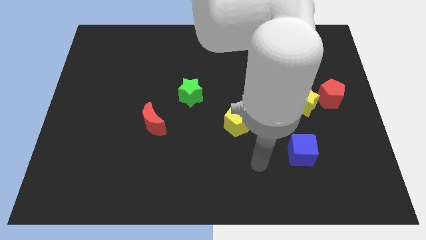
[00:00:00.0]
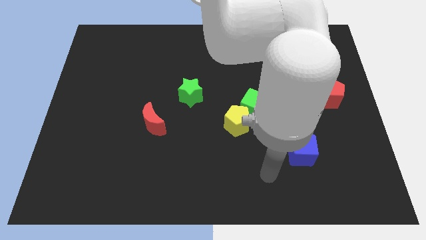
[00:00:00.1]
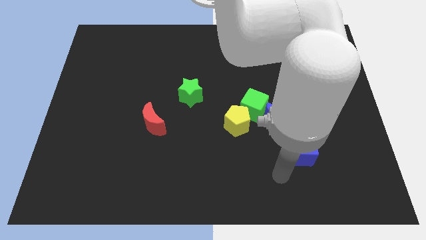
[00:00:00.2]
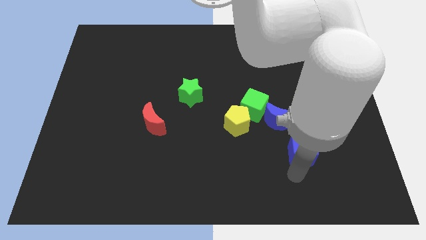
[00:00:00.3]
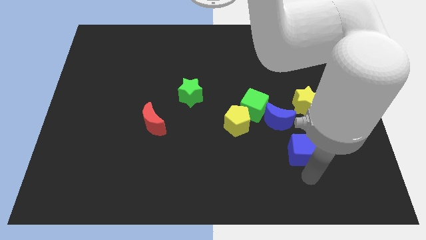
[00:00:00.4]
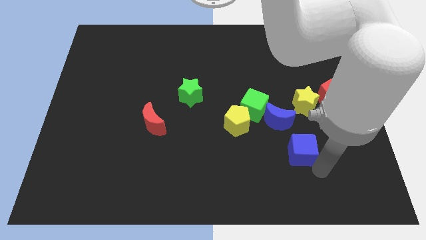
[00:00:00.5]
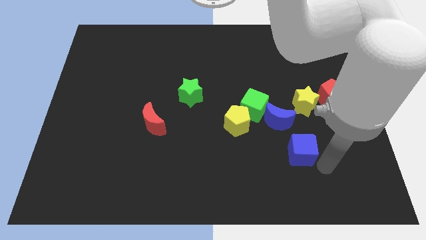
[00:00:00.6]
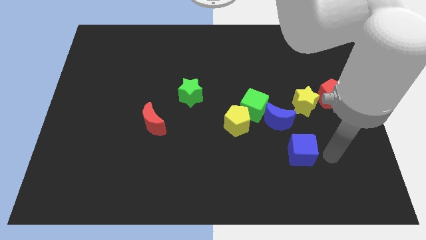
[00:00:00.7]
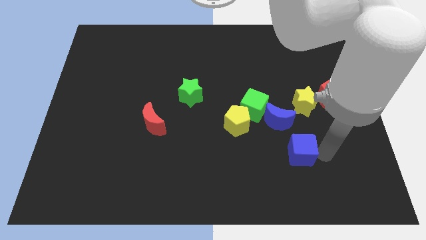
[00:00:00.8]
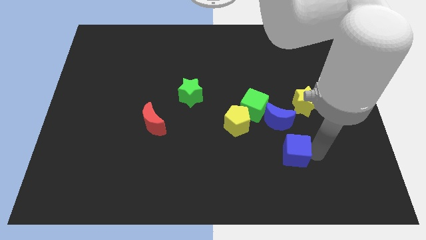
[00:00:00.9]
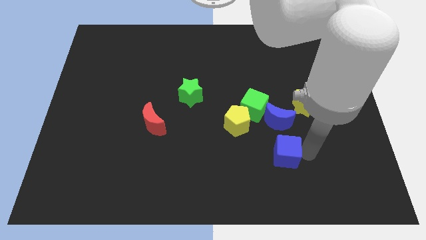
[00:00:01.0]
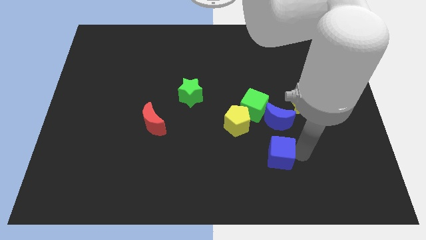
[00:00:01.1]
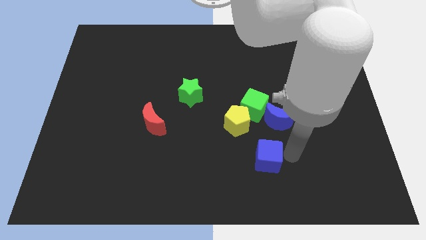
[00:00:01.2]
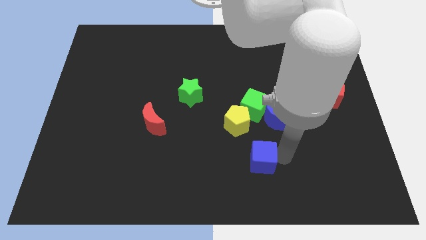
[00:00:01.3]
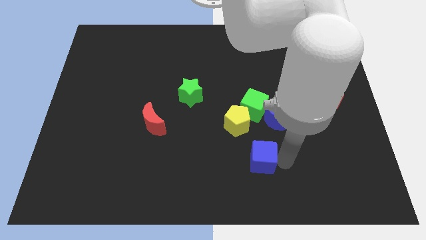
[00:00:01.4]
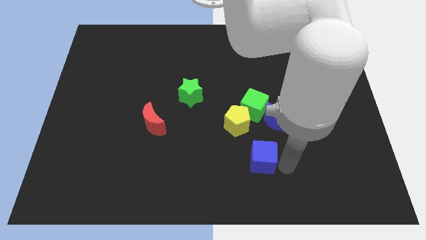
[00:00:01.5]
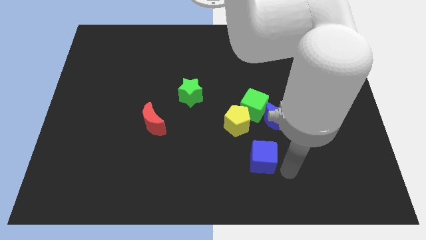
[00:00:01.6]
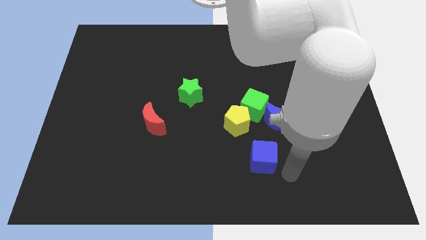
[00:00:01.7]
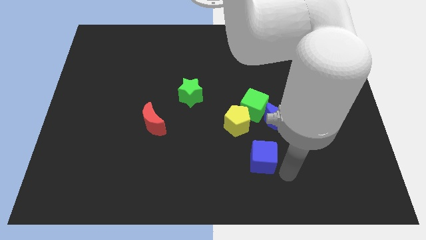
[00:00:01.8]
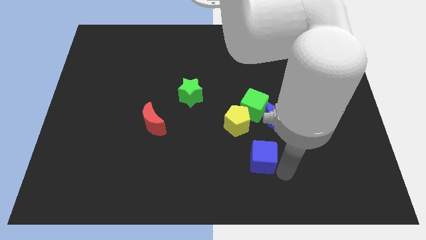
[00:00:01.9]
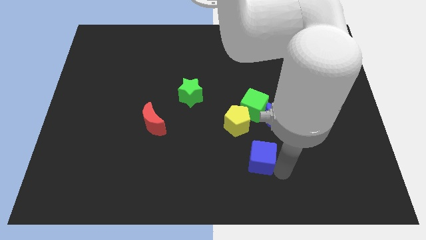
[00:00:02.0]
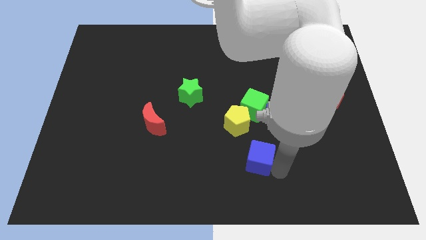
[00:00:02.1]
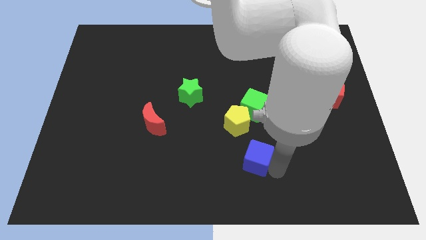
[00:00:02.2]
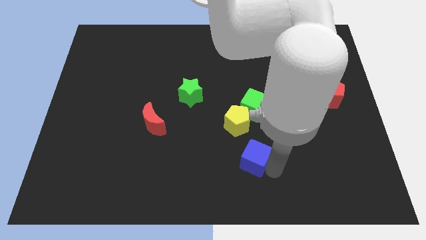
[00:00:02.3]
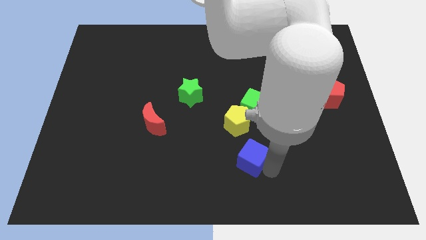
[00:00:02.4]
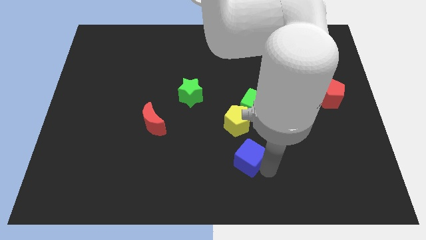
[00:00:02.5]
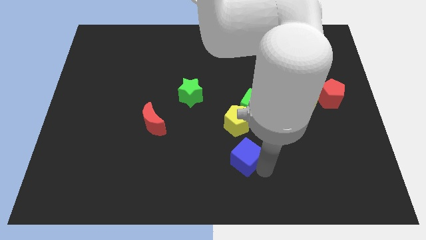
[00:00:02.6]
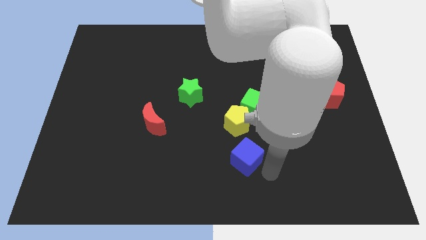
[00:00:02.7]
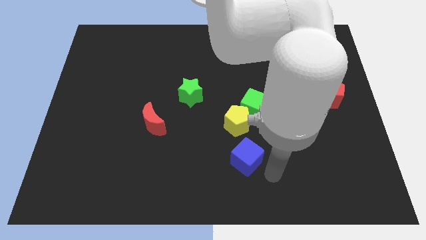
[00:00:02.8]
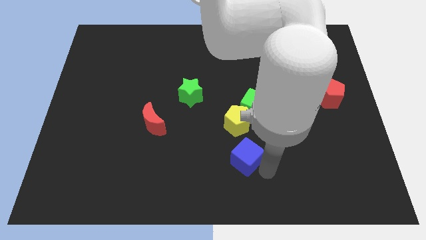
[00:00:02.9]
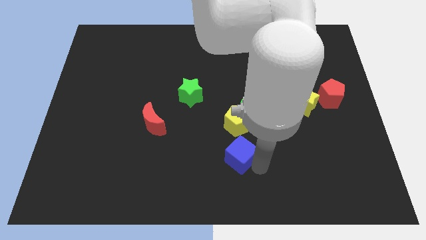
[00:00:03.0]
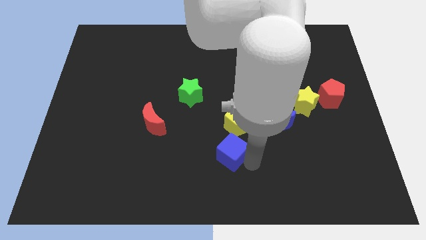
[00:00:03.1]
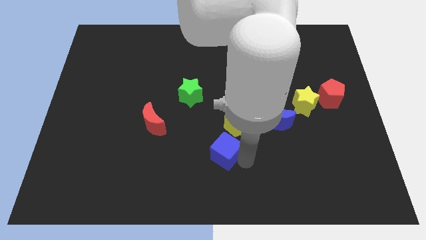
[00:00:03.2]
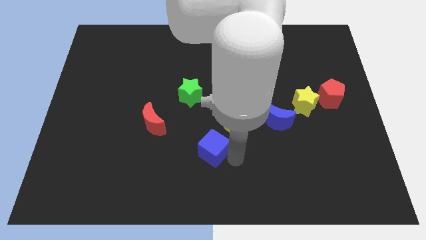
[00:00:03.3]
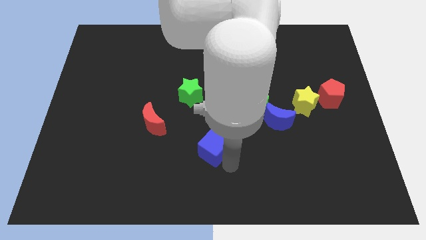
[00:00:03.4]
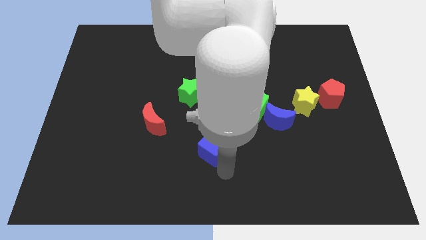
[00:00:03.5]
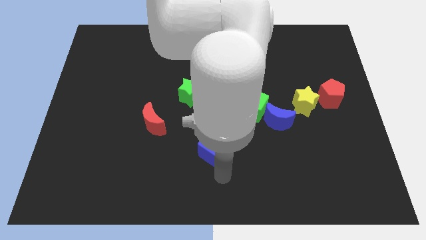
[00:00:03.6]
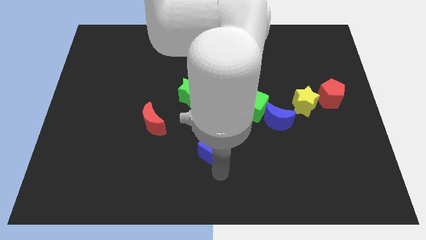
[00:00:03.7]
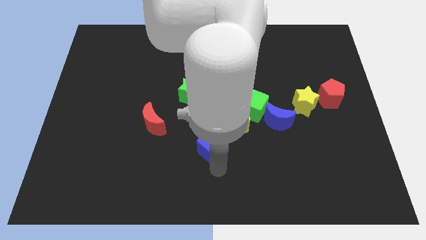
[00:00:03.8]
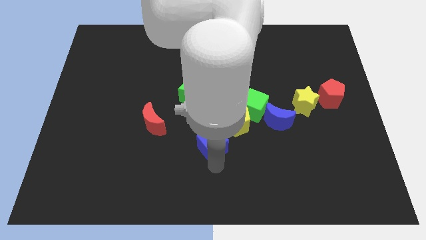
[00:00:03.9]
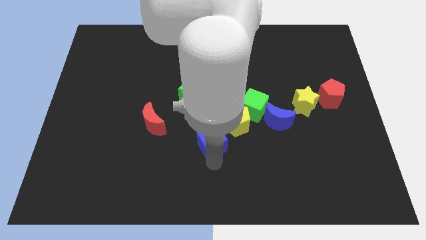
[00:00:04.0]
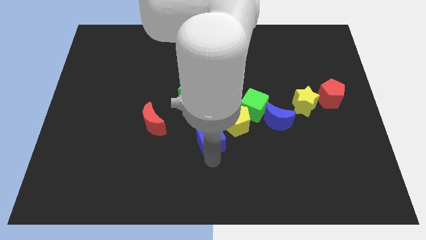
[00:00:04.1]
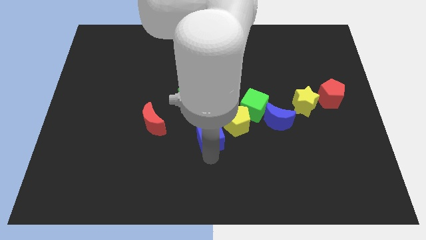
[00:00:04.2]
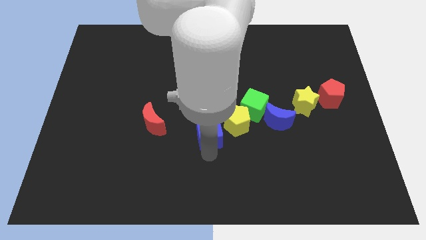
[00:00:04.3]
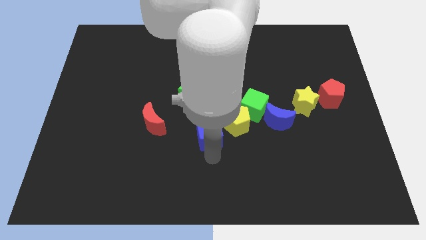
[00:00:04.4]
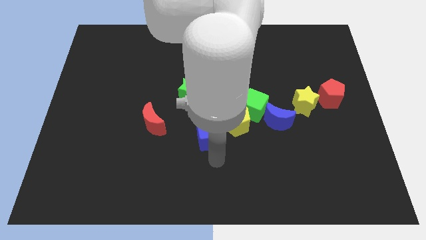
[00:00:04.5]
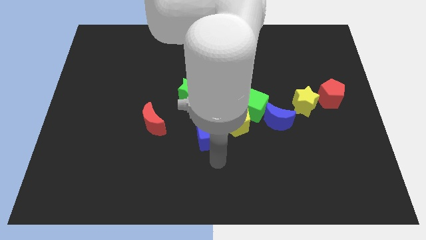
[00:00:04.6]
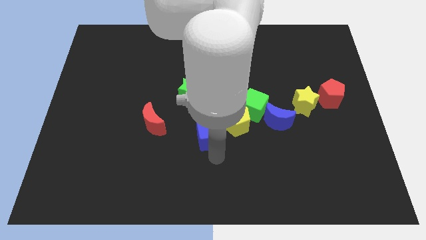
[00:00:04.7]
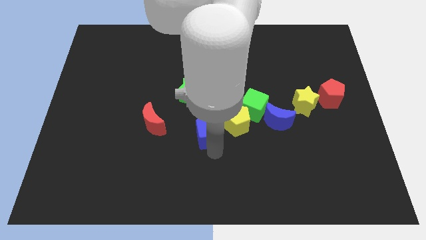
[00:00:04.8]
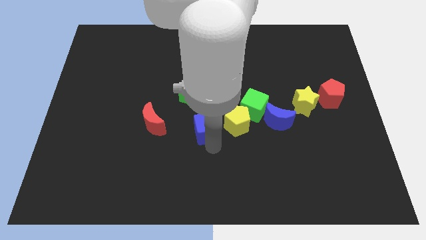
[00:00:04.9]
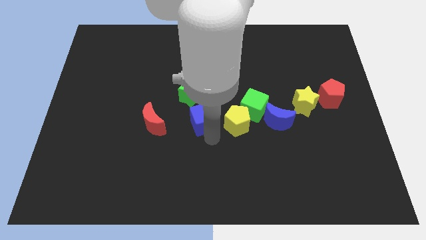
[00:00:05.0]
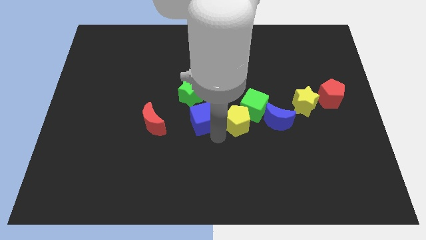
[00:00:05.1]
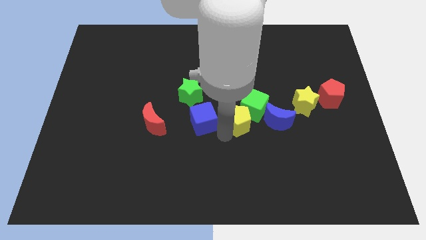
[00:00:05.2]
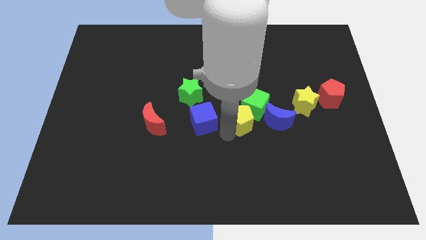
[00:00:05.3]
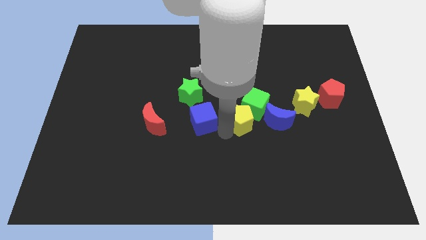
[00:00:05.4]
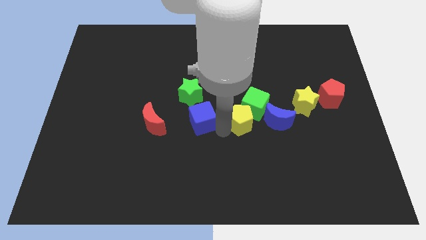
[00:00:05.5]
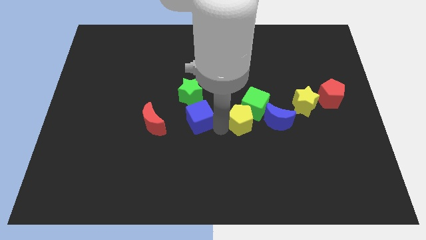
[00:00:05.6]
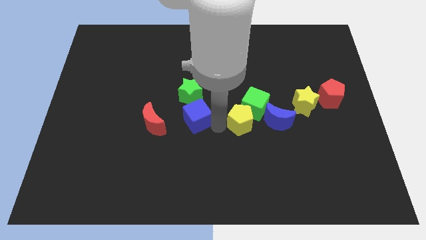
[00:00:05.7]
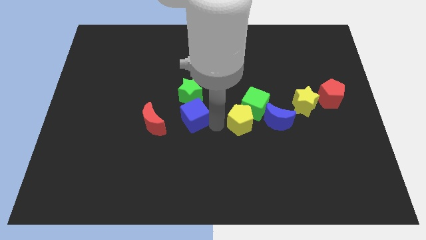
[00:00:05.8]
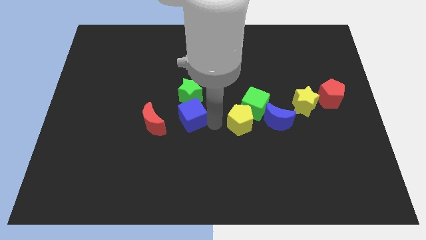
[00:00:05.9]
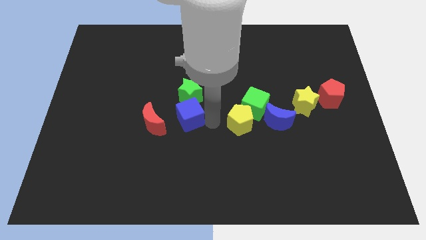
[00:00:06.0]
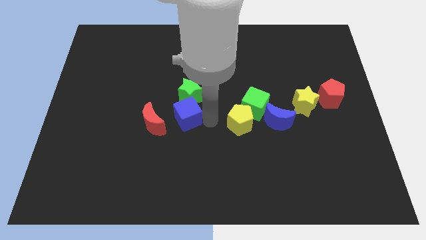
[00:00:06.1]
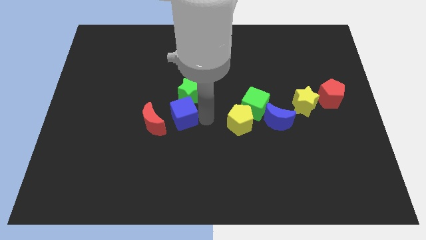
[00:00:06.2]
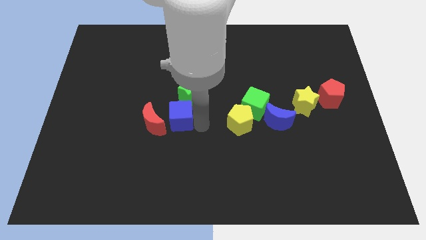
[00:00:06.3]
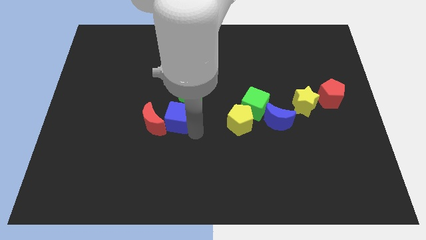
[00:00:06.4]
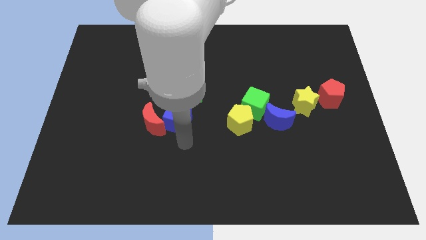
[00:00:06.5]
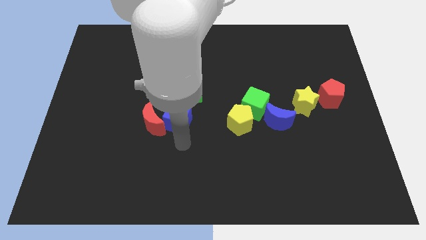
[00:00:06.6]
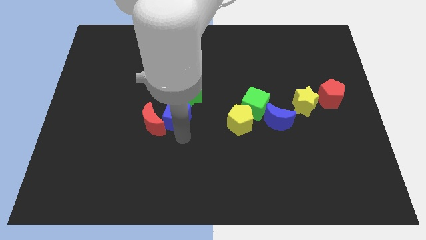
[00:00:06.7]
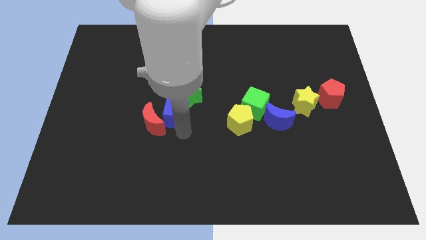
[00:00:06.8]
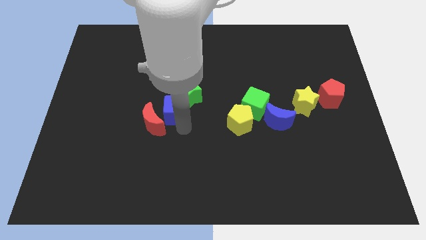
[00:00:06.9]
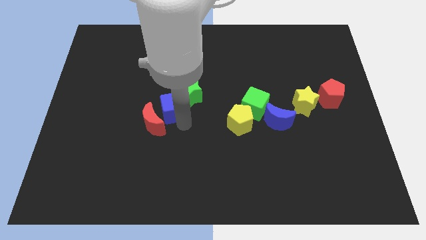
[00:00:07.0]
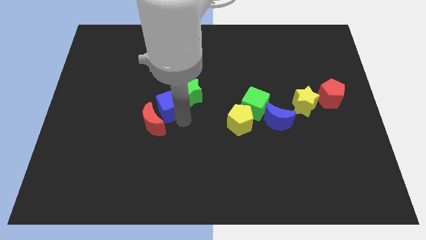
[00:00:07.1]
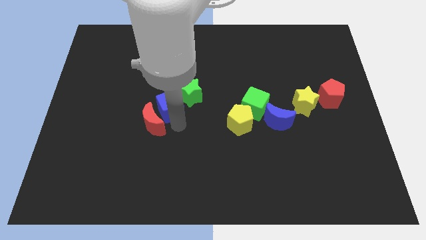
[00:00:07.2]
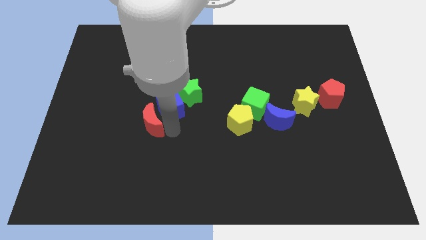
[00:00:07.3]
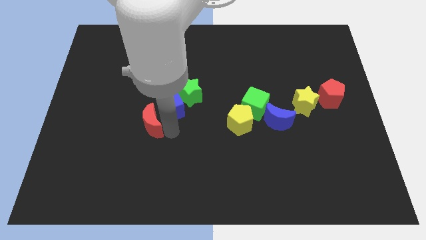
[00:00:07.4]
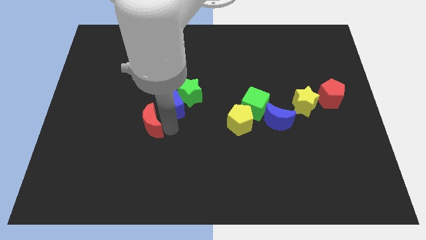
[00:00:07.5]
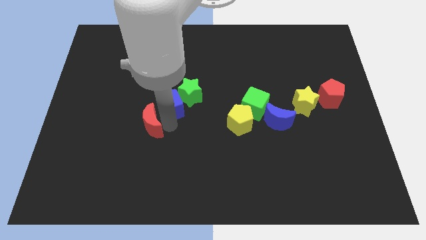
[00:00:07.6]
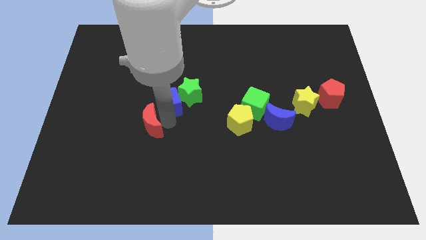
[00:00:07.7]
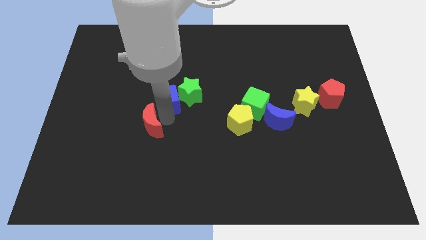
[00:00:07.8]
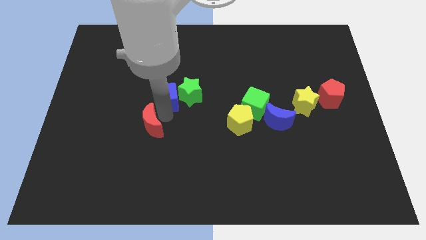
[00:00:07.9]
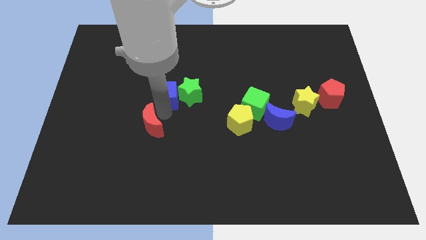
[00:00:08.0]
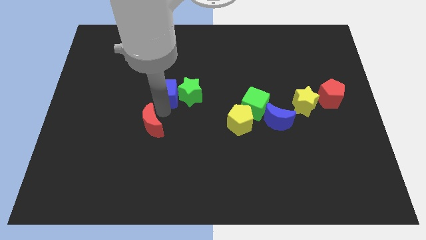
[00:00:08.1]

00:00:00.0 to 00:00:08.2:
move the blue cube diagonally up and to the left of the green star

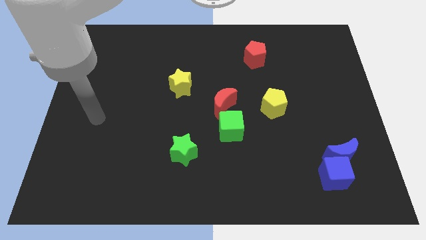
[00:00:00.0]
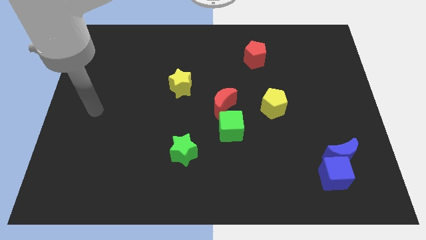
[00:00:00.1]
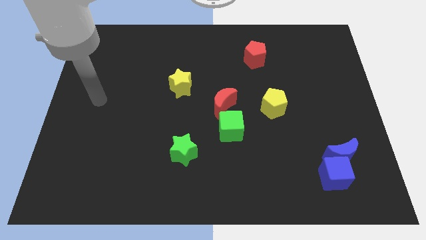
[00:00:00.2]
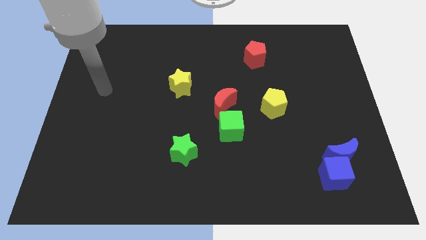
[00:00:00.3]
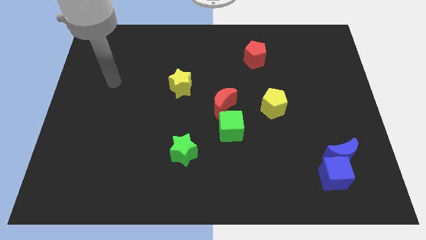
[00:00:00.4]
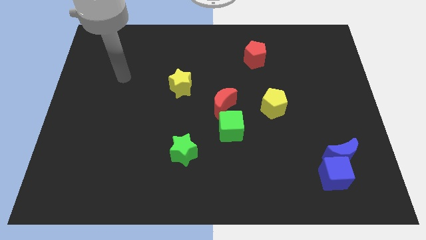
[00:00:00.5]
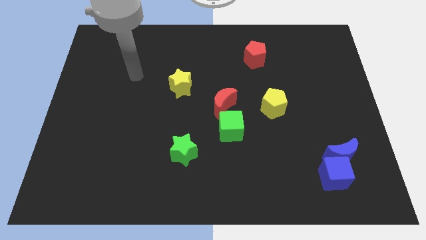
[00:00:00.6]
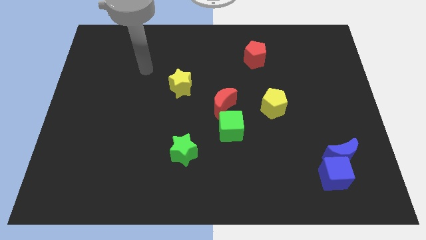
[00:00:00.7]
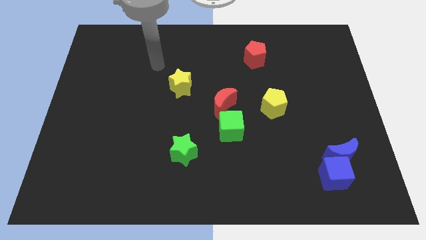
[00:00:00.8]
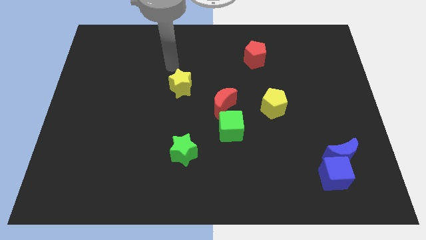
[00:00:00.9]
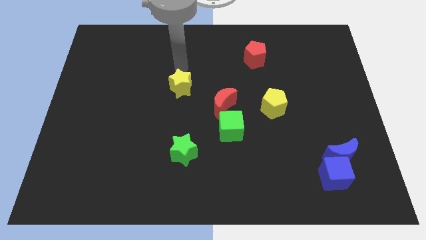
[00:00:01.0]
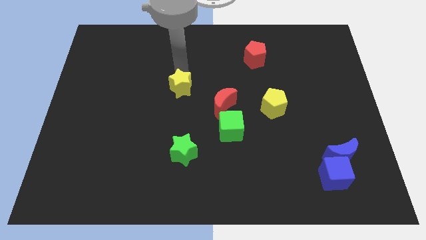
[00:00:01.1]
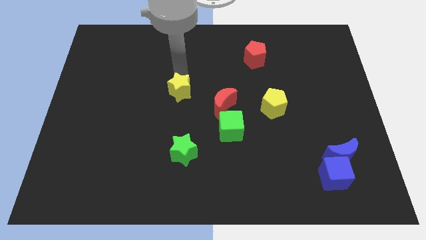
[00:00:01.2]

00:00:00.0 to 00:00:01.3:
slide the yellow star just left of the red moon
